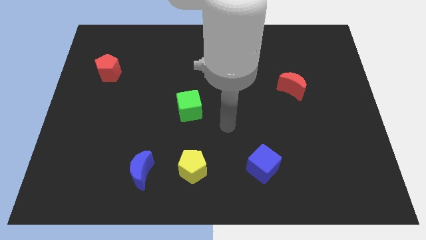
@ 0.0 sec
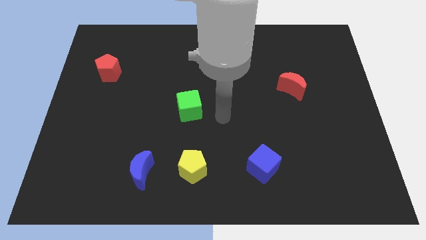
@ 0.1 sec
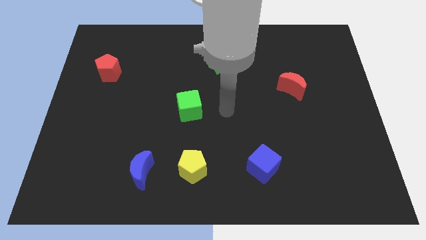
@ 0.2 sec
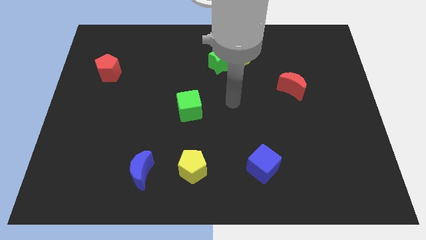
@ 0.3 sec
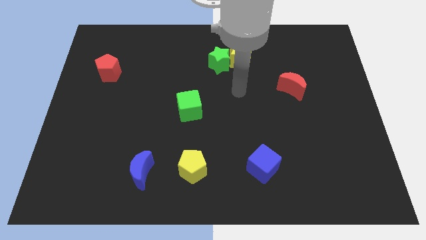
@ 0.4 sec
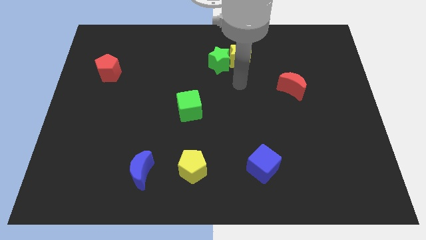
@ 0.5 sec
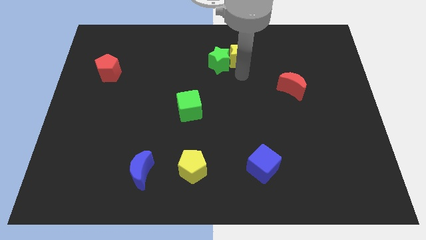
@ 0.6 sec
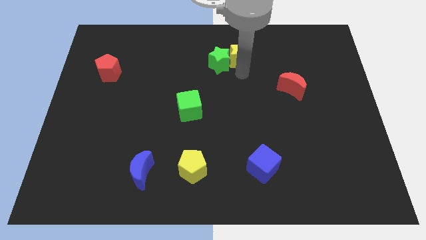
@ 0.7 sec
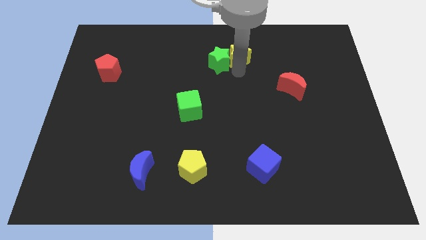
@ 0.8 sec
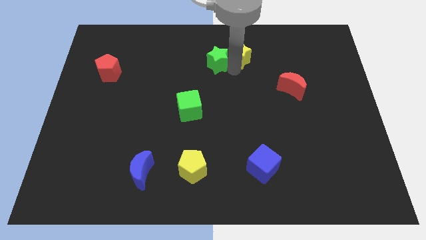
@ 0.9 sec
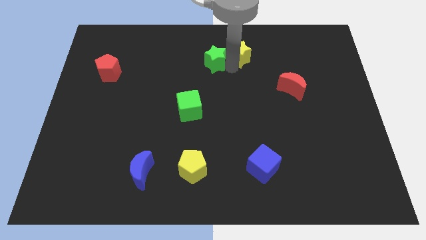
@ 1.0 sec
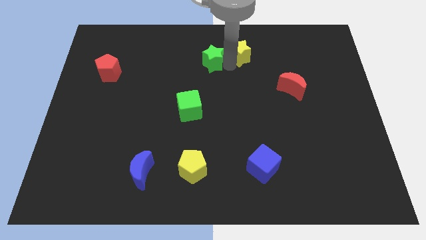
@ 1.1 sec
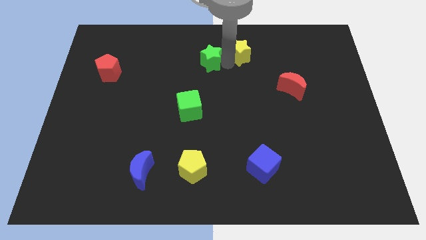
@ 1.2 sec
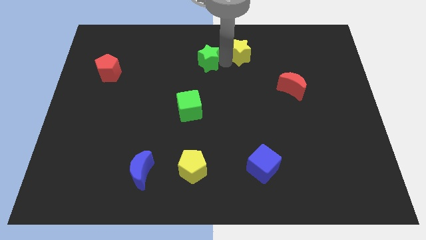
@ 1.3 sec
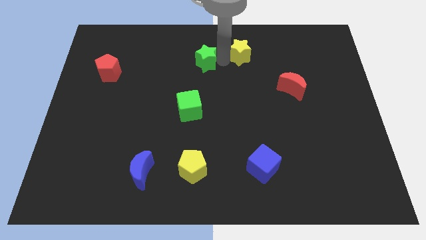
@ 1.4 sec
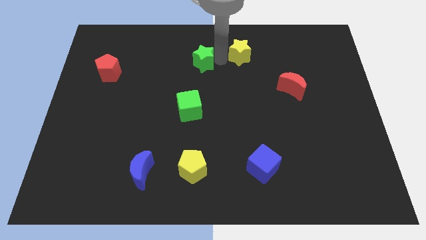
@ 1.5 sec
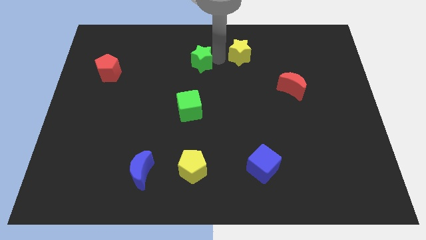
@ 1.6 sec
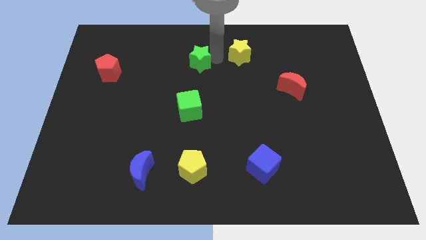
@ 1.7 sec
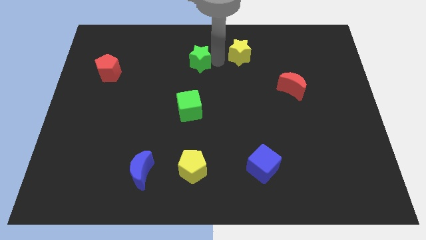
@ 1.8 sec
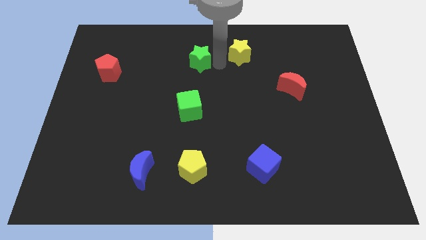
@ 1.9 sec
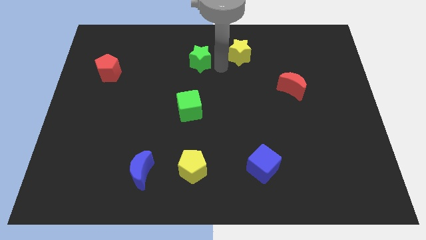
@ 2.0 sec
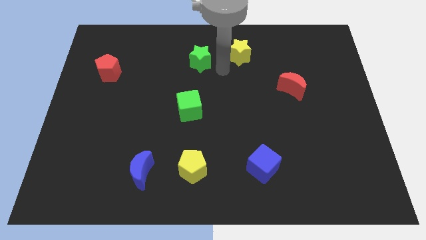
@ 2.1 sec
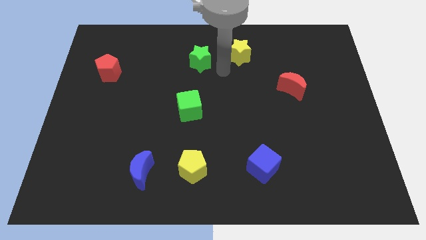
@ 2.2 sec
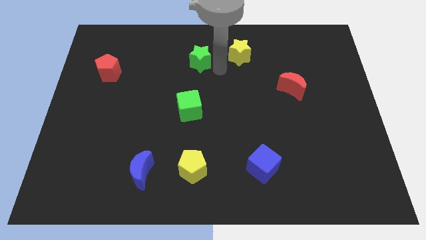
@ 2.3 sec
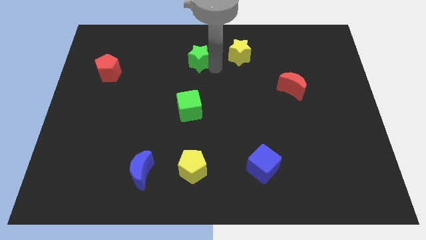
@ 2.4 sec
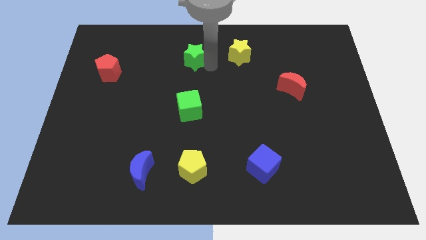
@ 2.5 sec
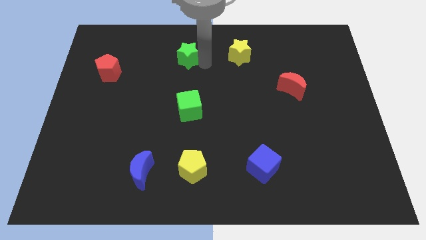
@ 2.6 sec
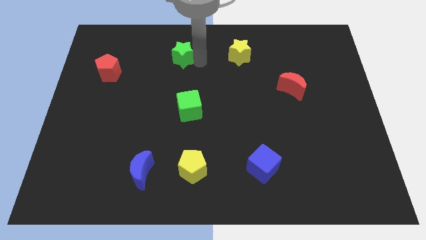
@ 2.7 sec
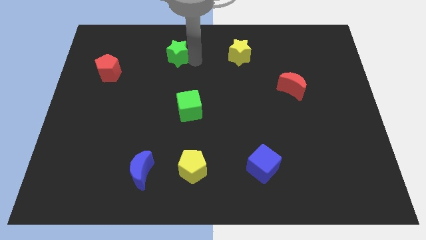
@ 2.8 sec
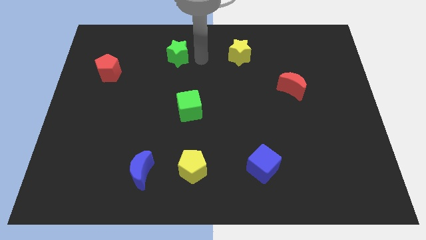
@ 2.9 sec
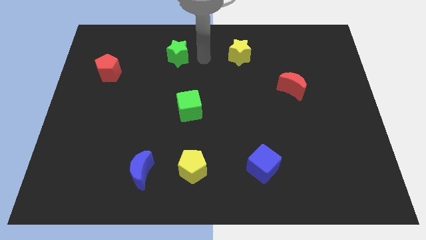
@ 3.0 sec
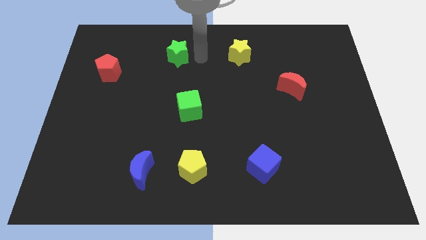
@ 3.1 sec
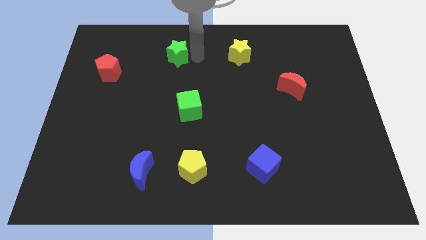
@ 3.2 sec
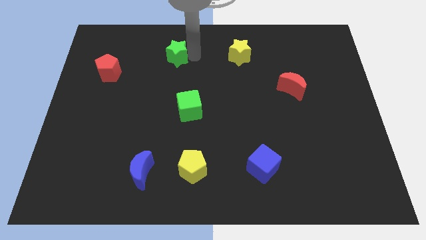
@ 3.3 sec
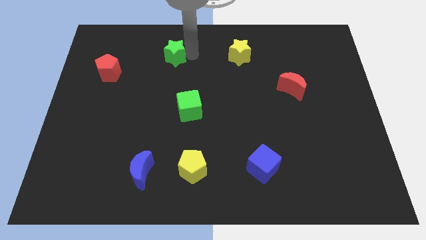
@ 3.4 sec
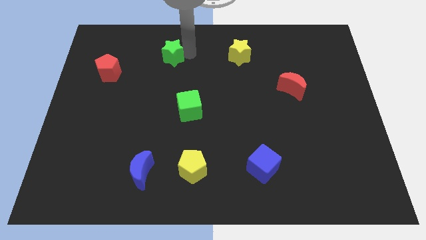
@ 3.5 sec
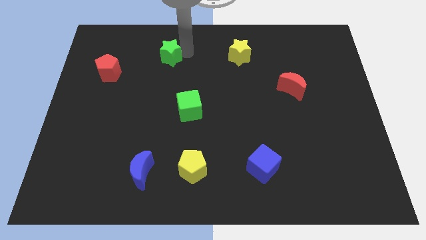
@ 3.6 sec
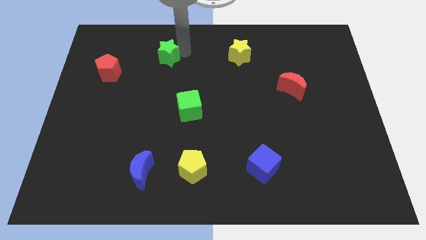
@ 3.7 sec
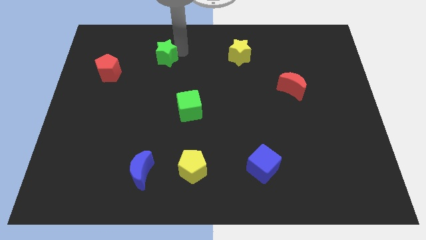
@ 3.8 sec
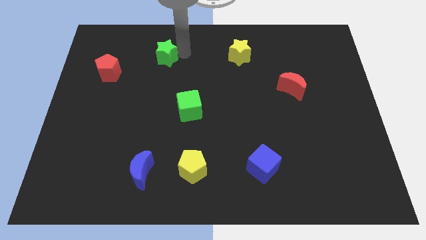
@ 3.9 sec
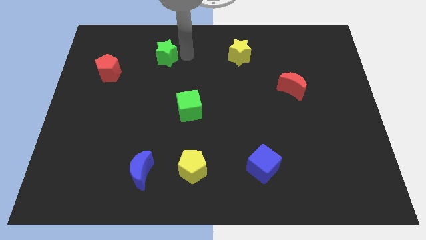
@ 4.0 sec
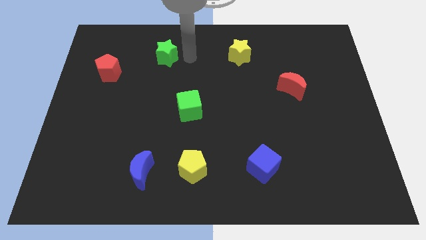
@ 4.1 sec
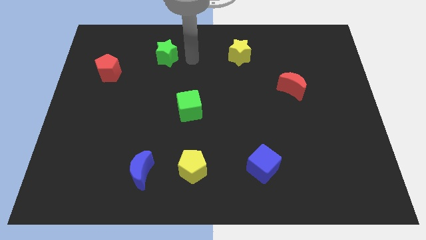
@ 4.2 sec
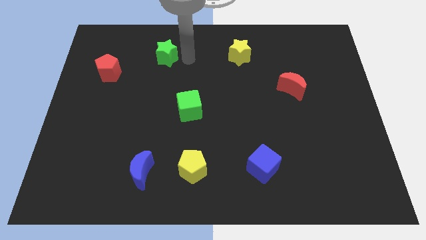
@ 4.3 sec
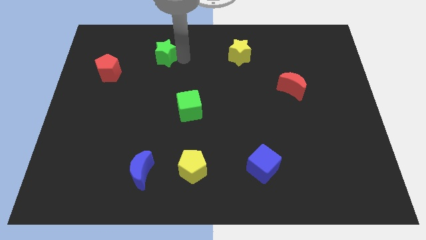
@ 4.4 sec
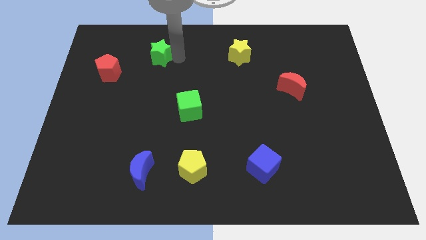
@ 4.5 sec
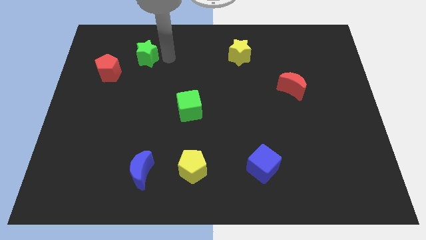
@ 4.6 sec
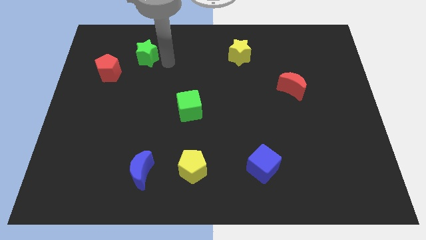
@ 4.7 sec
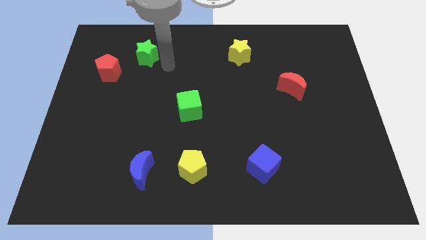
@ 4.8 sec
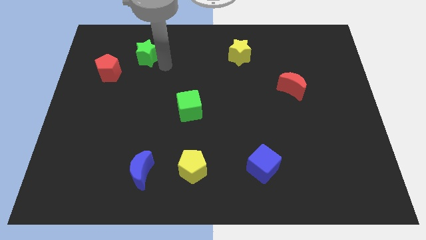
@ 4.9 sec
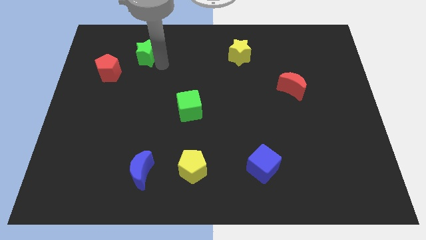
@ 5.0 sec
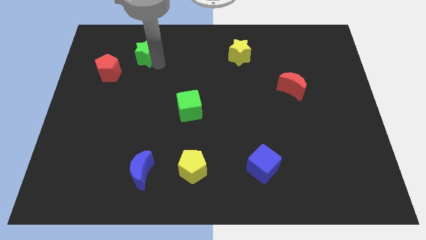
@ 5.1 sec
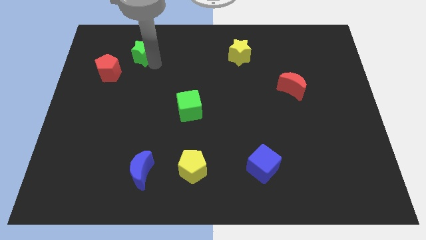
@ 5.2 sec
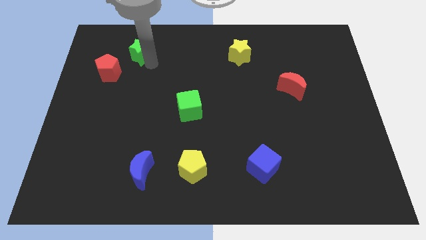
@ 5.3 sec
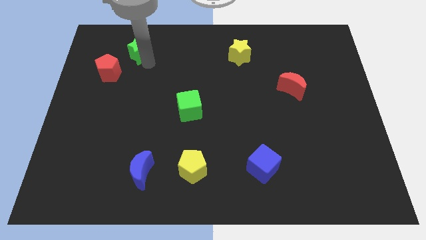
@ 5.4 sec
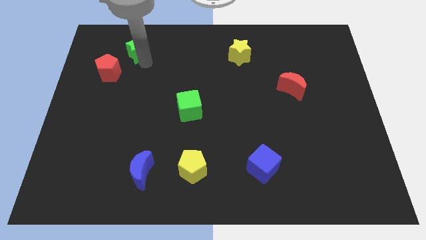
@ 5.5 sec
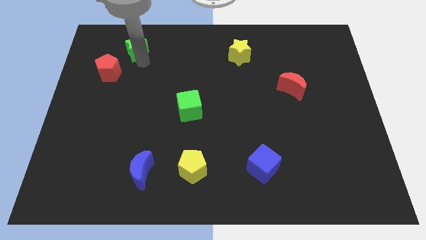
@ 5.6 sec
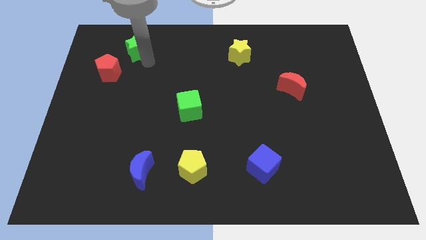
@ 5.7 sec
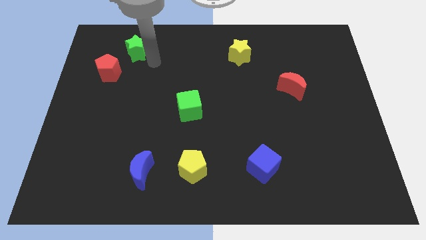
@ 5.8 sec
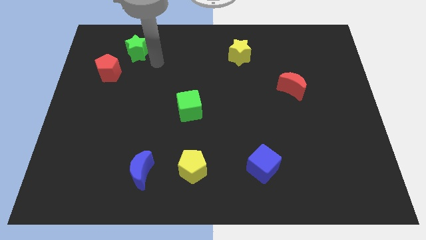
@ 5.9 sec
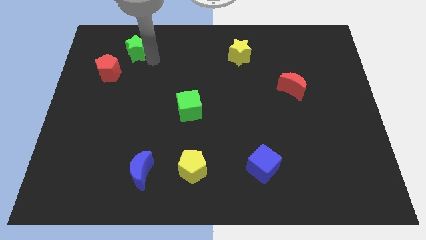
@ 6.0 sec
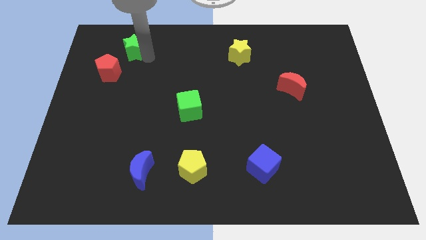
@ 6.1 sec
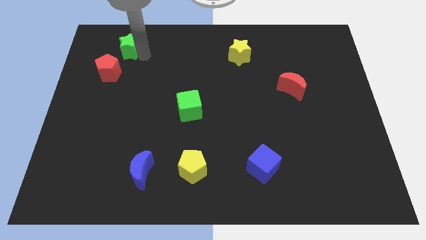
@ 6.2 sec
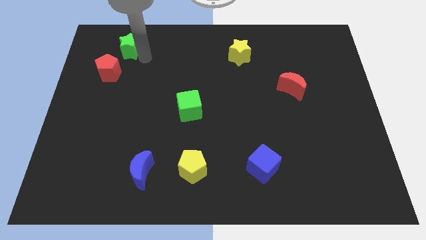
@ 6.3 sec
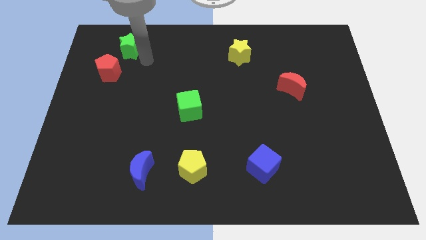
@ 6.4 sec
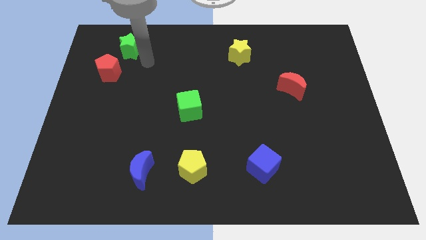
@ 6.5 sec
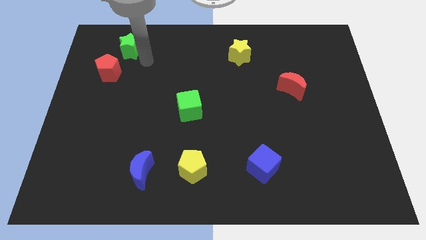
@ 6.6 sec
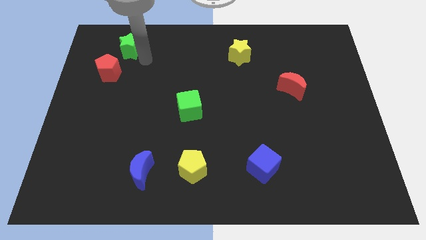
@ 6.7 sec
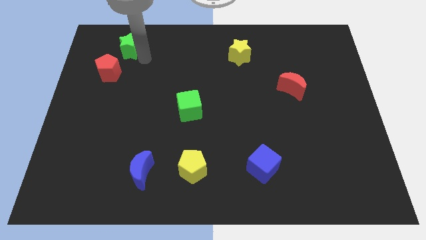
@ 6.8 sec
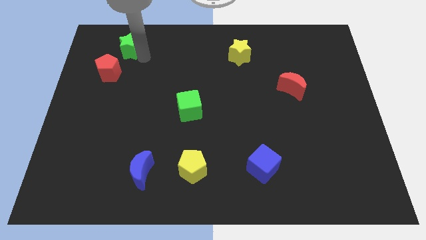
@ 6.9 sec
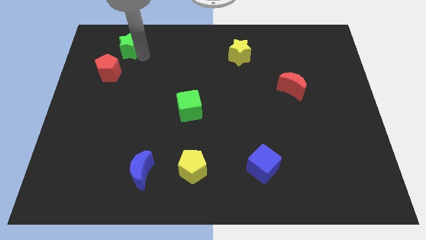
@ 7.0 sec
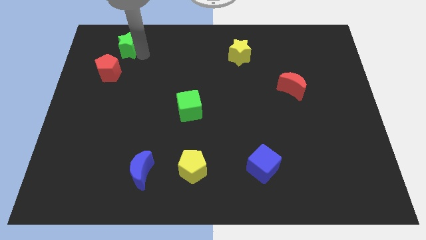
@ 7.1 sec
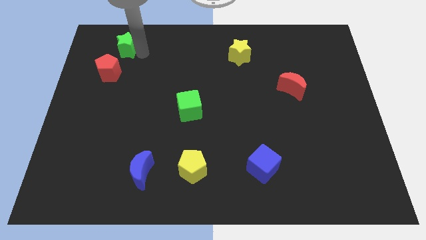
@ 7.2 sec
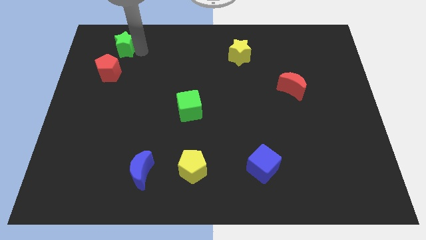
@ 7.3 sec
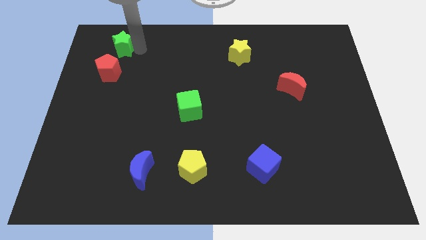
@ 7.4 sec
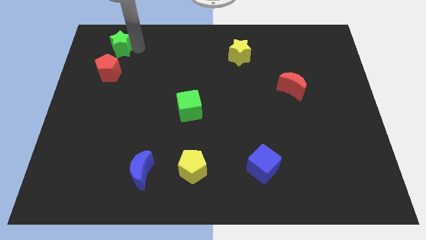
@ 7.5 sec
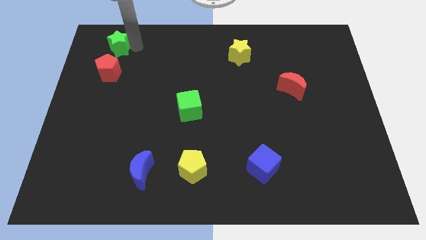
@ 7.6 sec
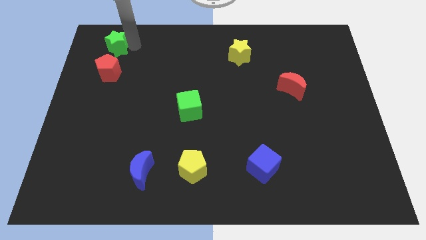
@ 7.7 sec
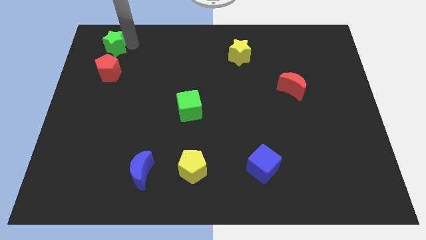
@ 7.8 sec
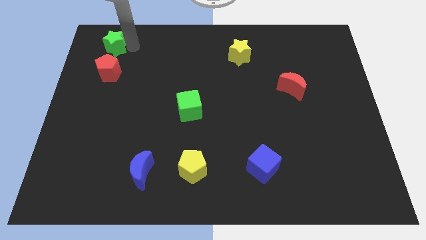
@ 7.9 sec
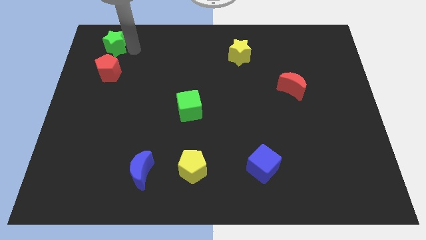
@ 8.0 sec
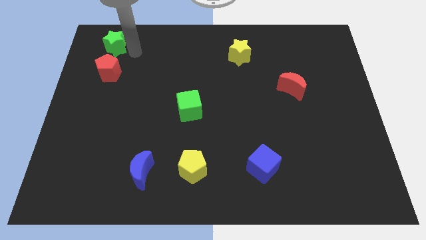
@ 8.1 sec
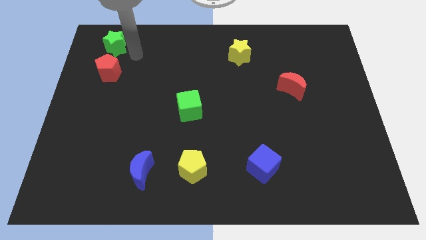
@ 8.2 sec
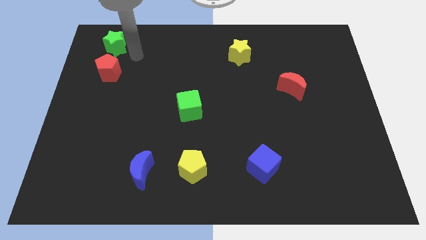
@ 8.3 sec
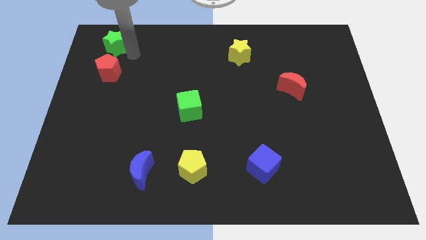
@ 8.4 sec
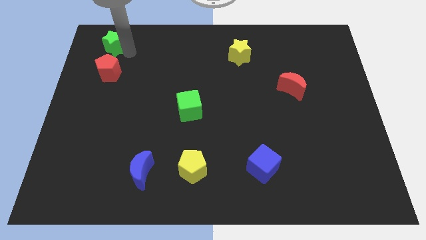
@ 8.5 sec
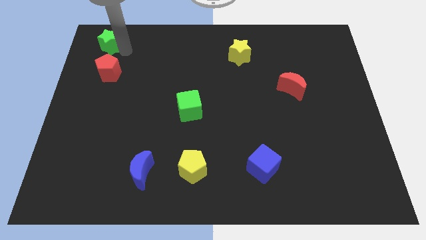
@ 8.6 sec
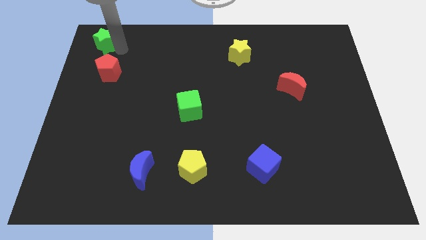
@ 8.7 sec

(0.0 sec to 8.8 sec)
slide the green star to the top left
